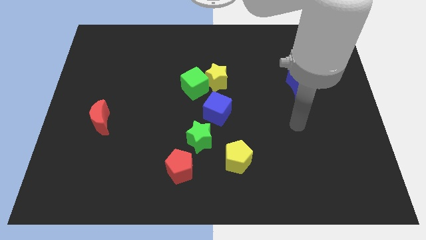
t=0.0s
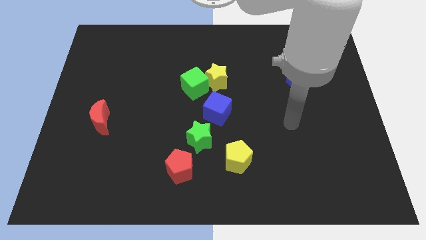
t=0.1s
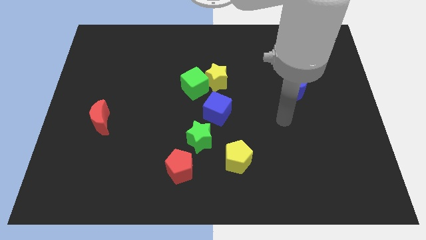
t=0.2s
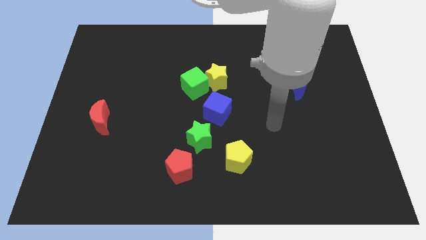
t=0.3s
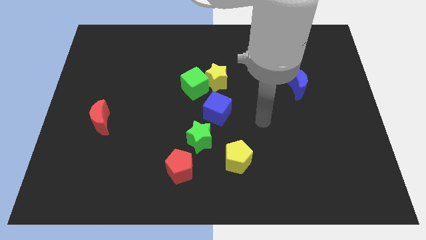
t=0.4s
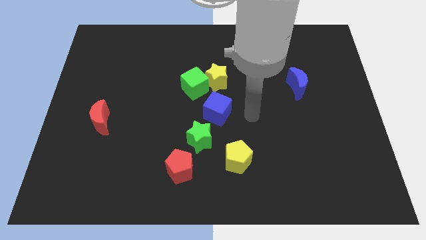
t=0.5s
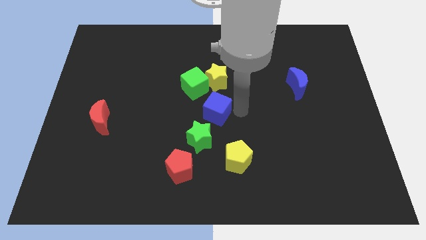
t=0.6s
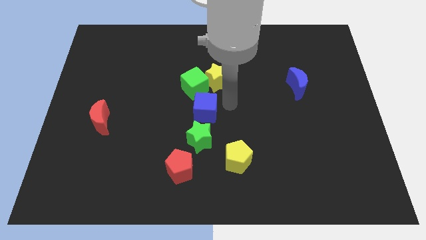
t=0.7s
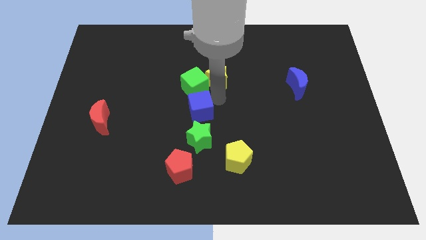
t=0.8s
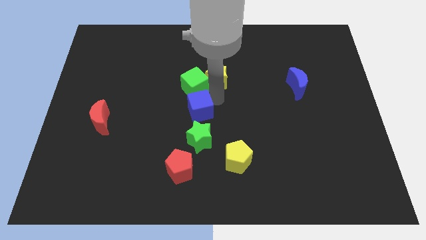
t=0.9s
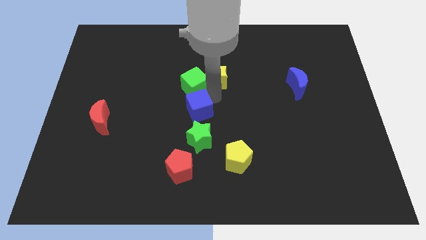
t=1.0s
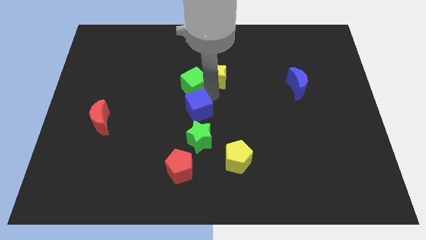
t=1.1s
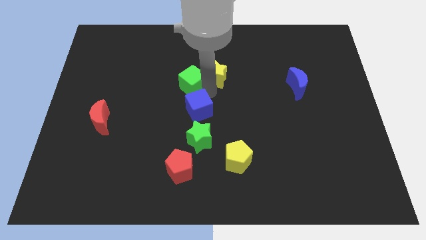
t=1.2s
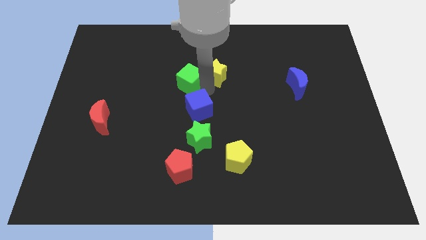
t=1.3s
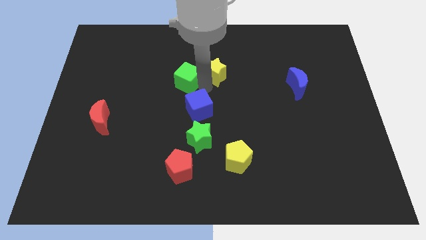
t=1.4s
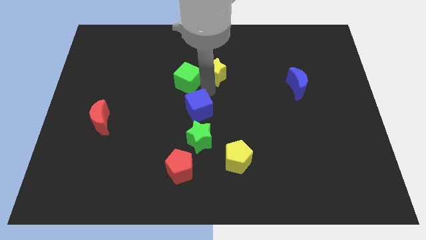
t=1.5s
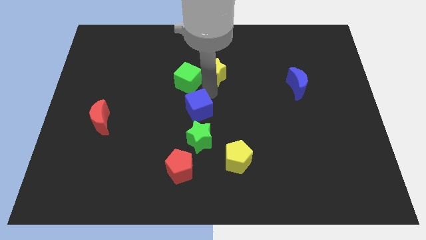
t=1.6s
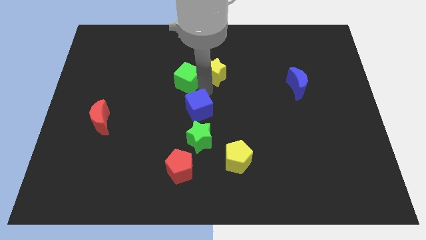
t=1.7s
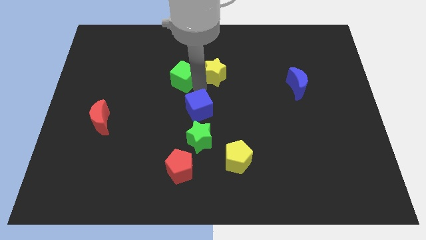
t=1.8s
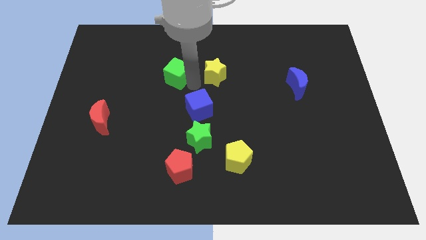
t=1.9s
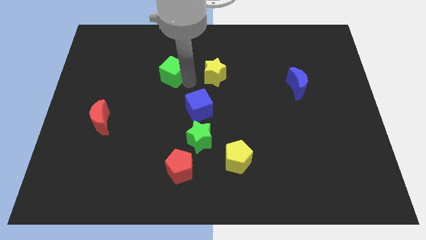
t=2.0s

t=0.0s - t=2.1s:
separate the green cube from the yellow star and blue cube

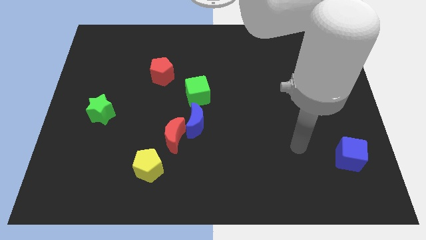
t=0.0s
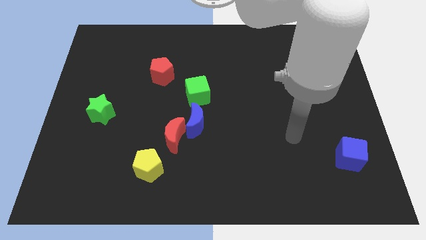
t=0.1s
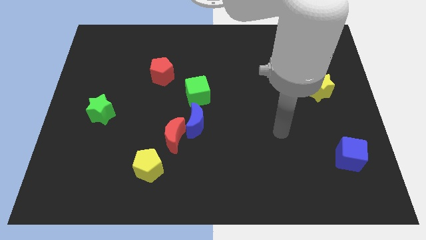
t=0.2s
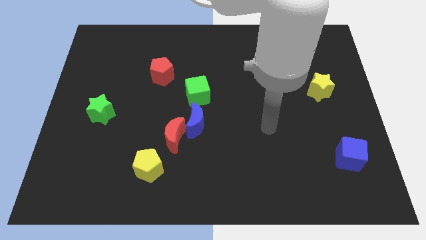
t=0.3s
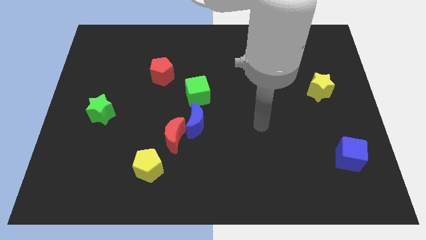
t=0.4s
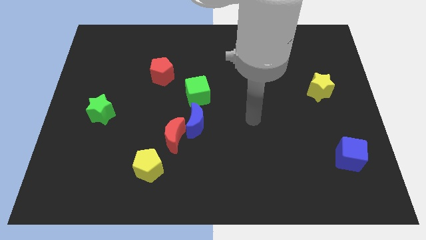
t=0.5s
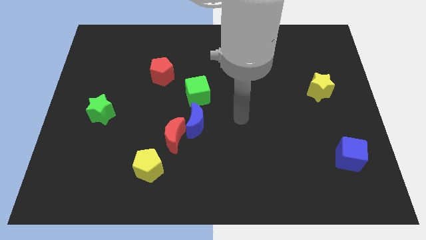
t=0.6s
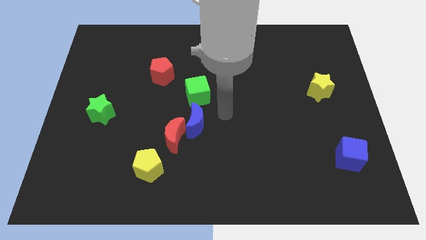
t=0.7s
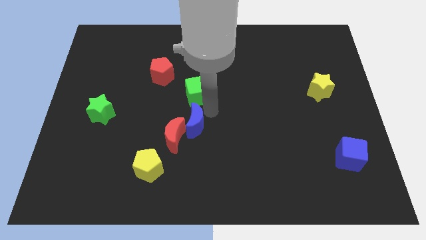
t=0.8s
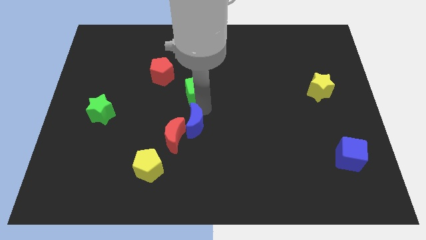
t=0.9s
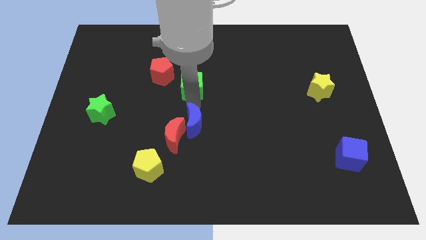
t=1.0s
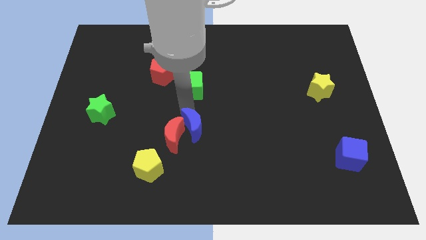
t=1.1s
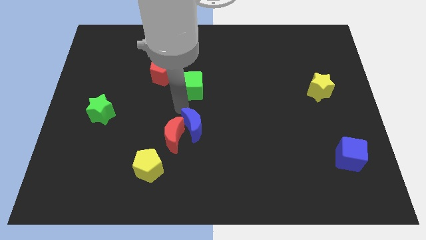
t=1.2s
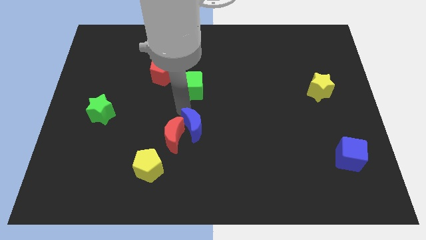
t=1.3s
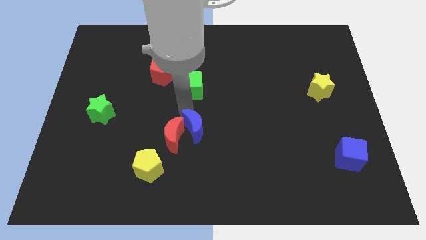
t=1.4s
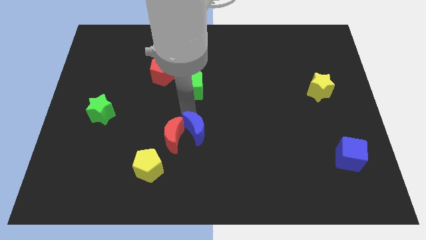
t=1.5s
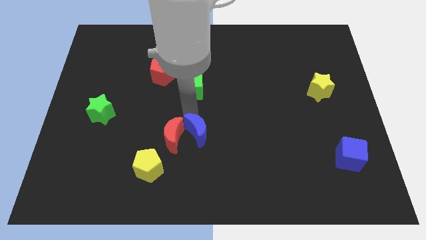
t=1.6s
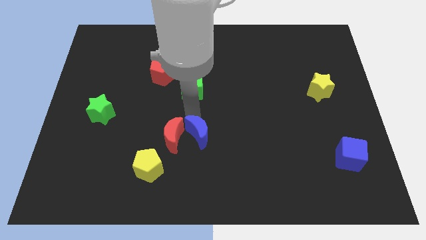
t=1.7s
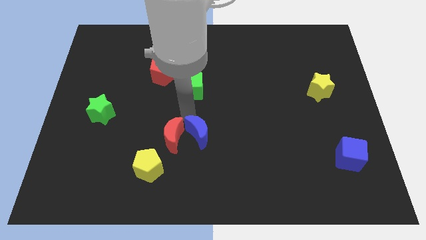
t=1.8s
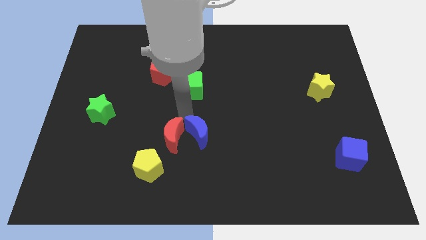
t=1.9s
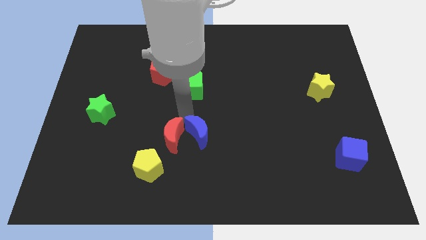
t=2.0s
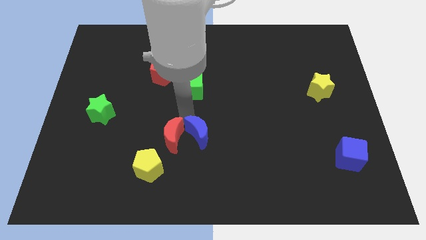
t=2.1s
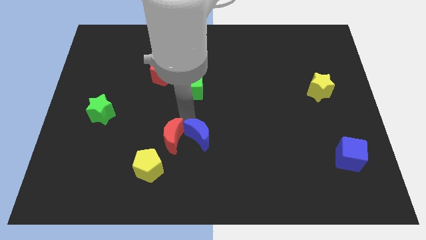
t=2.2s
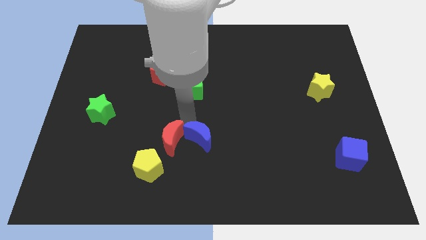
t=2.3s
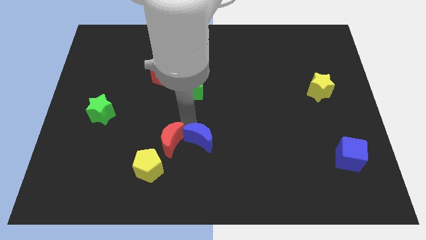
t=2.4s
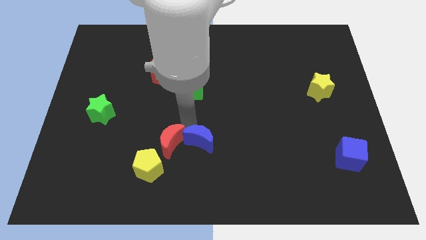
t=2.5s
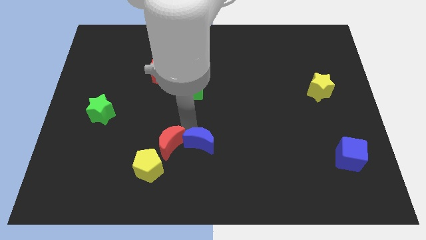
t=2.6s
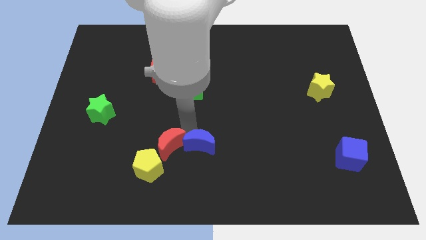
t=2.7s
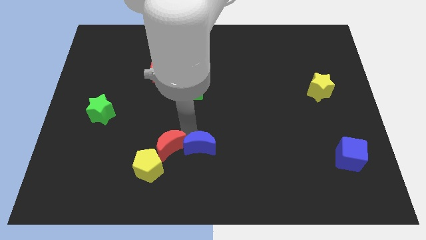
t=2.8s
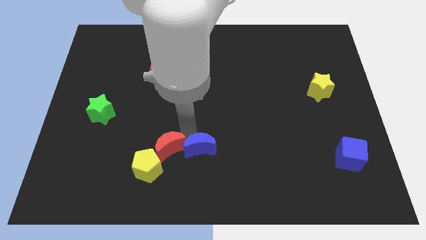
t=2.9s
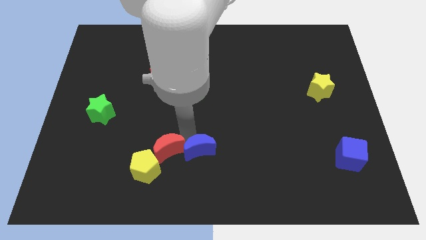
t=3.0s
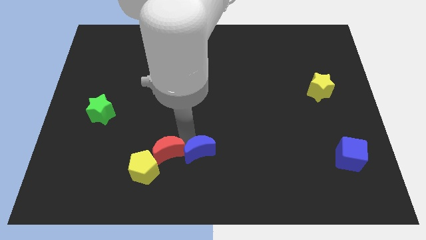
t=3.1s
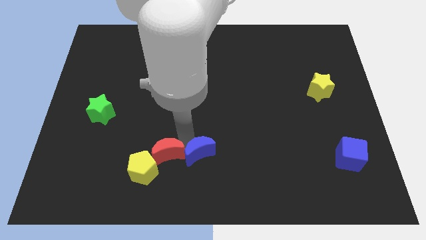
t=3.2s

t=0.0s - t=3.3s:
move the blue moon away from the red moon and green cube

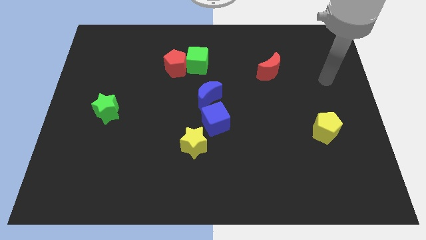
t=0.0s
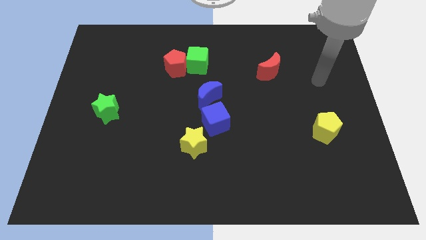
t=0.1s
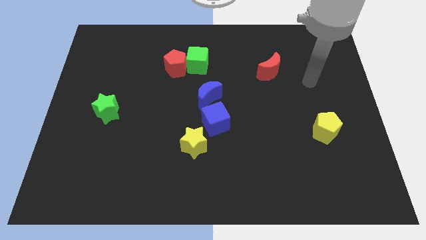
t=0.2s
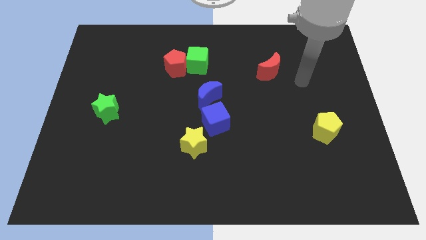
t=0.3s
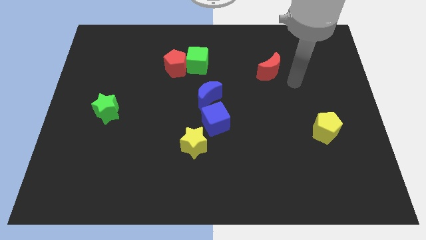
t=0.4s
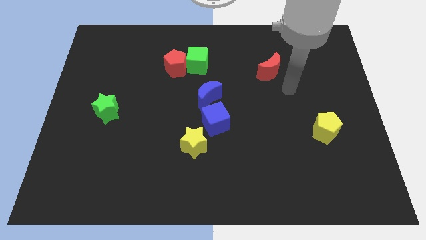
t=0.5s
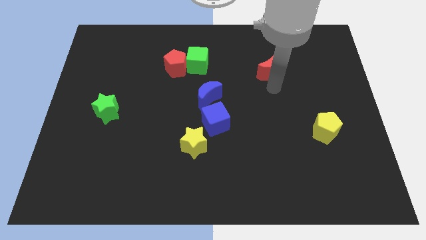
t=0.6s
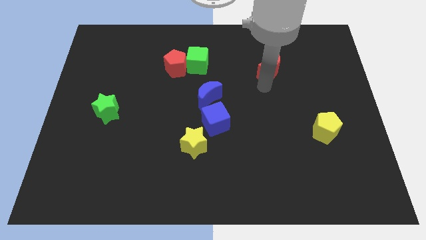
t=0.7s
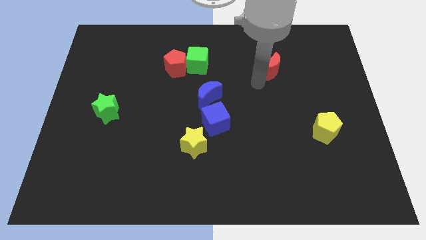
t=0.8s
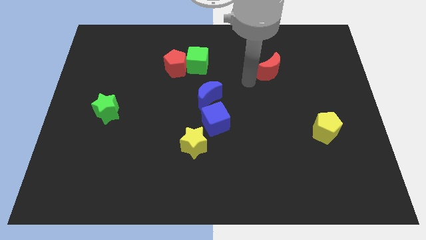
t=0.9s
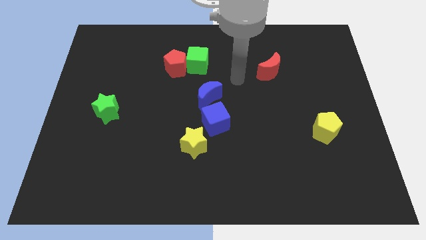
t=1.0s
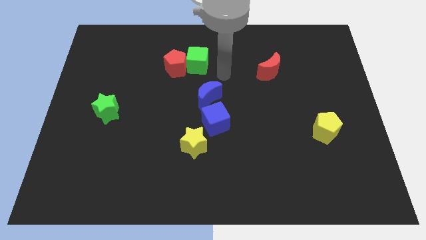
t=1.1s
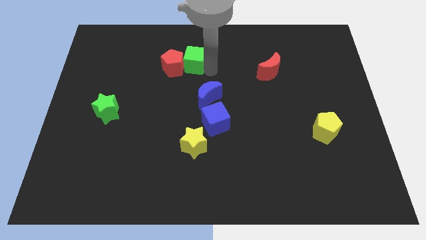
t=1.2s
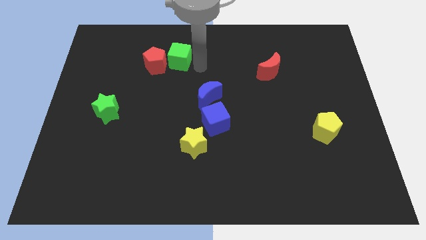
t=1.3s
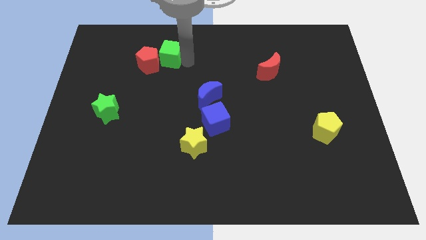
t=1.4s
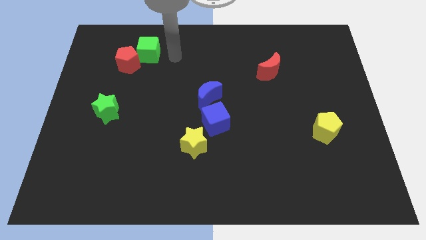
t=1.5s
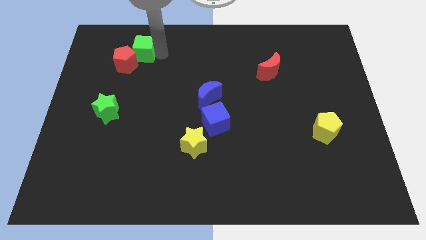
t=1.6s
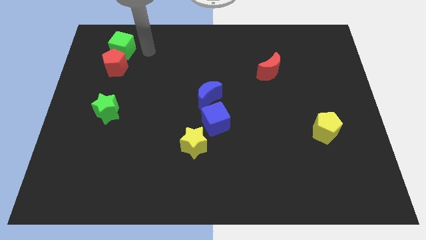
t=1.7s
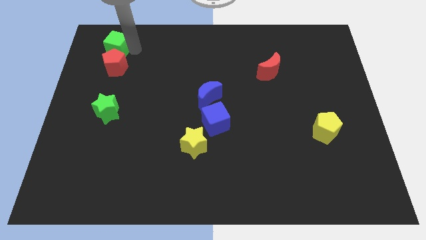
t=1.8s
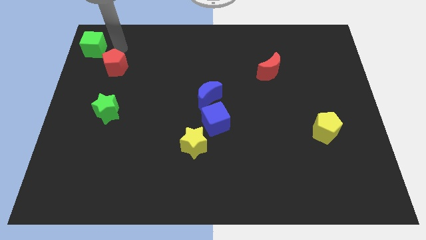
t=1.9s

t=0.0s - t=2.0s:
pull the red pentagon apart from the green cube

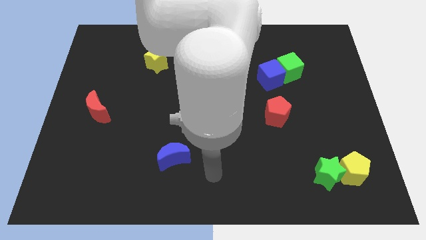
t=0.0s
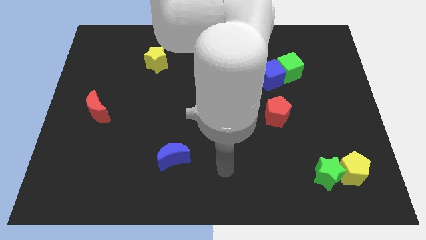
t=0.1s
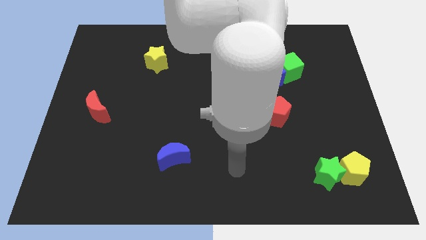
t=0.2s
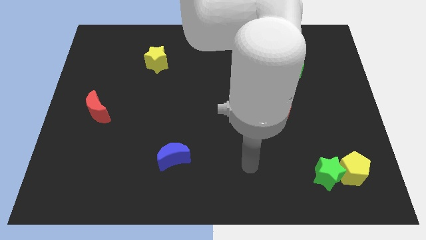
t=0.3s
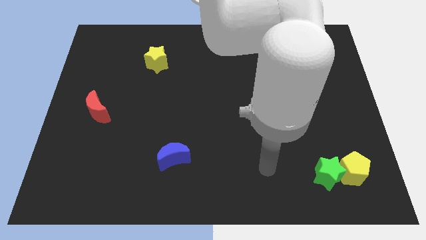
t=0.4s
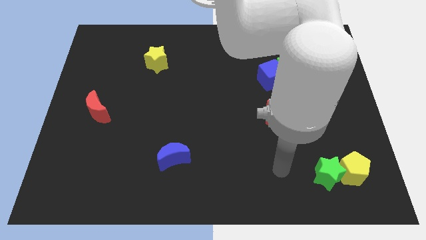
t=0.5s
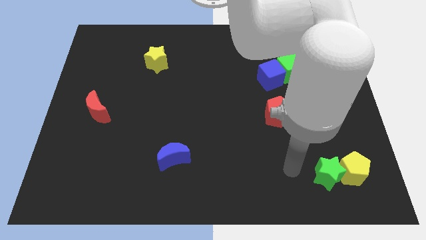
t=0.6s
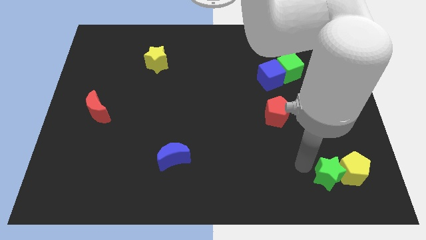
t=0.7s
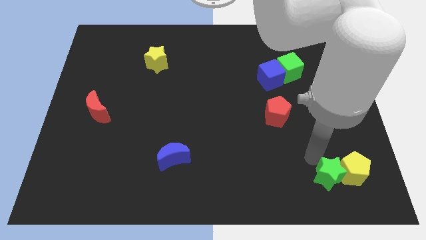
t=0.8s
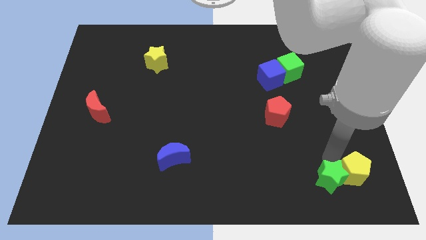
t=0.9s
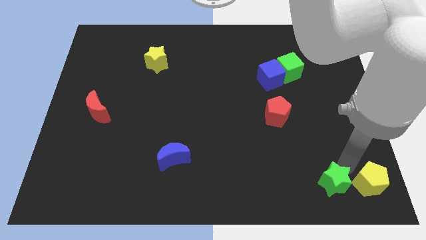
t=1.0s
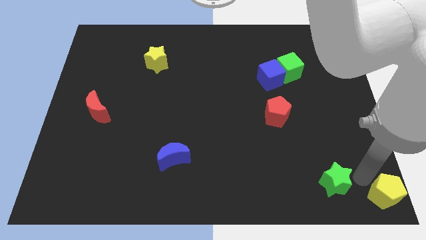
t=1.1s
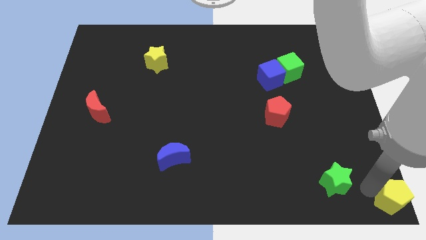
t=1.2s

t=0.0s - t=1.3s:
separate the green star from the yellow pentagon

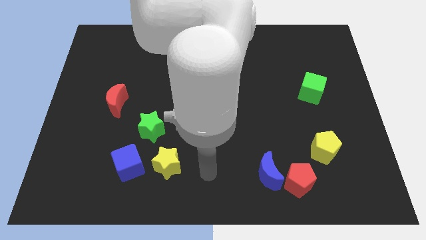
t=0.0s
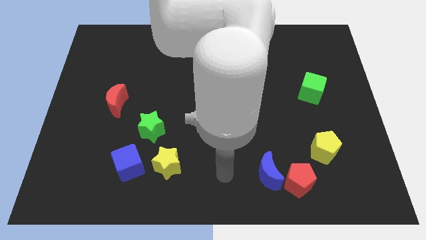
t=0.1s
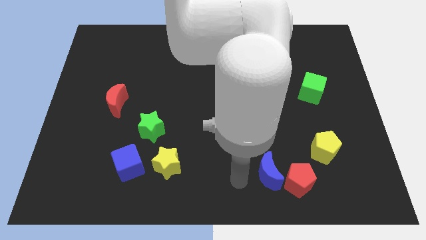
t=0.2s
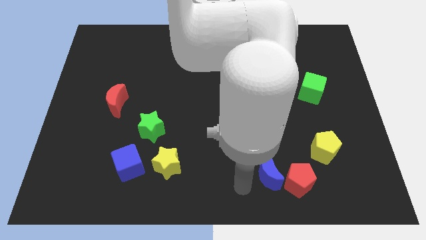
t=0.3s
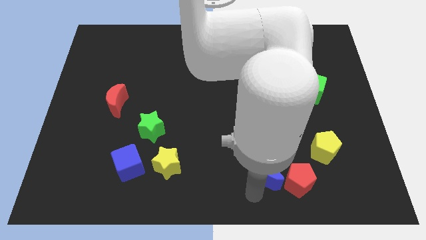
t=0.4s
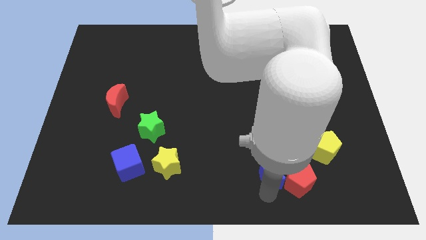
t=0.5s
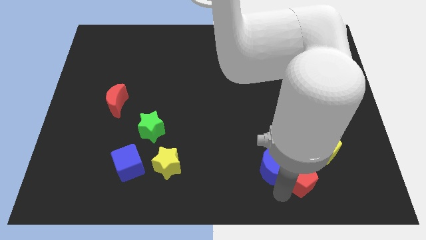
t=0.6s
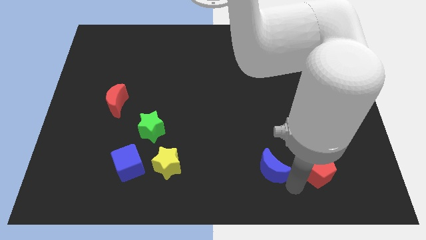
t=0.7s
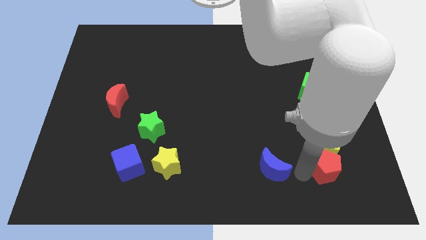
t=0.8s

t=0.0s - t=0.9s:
separate the blue moon from the red pentagon
